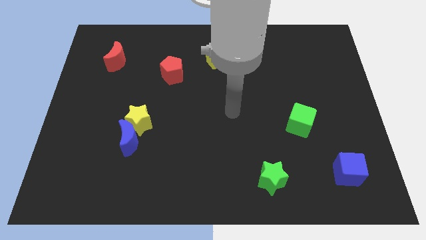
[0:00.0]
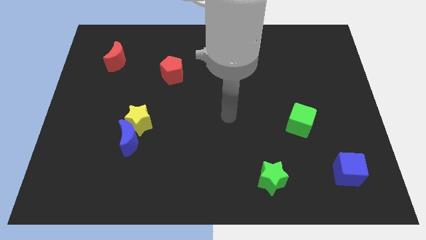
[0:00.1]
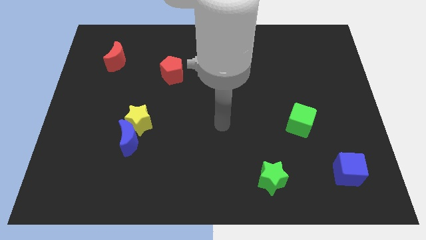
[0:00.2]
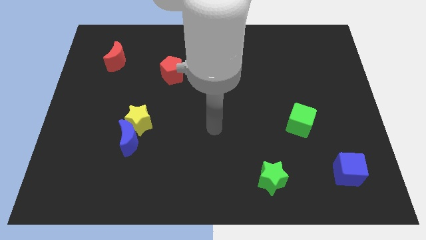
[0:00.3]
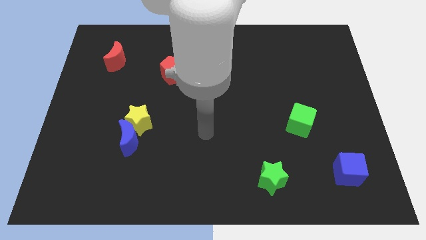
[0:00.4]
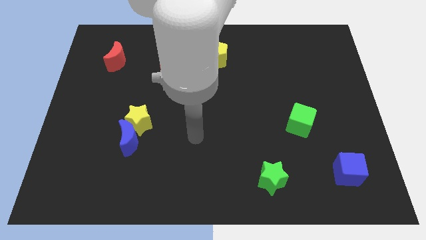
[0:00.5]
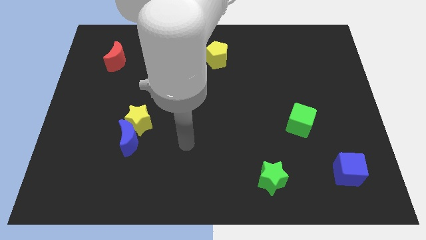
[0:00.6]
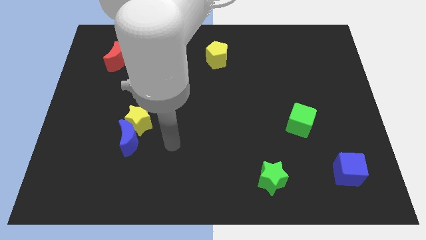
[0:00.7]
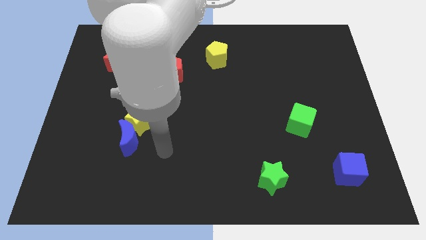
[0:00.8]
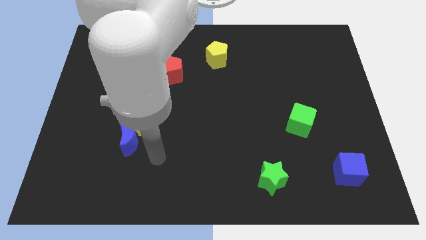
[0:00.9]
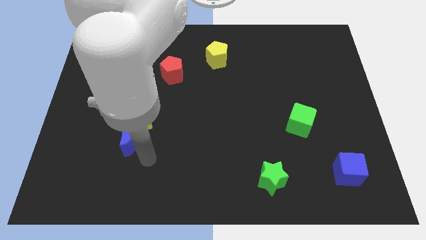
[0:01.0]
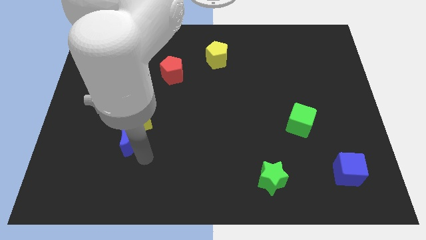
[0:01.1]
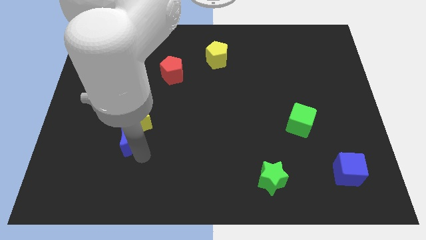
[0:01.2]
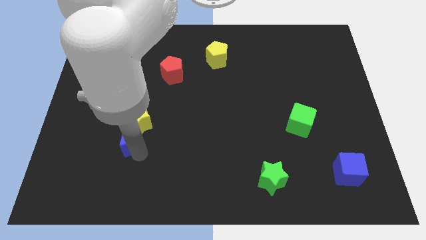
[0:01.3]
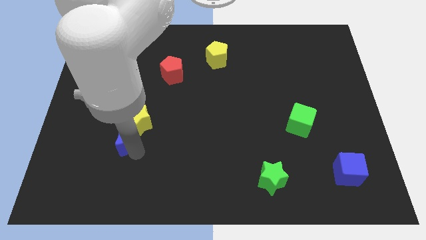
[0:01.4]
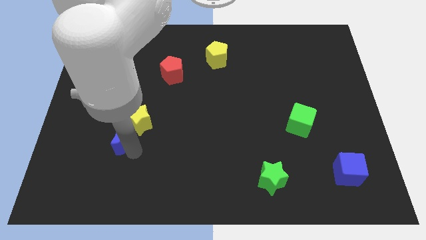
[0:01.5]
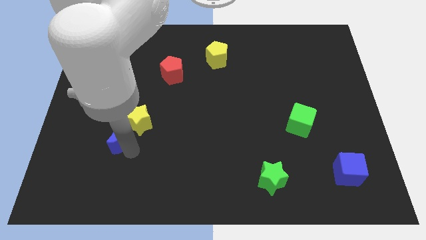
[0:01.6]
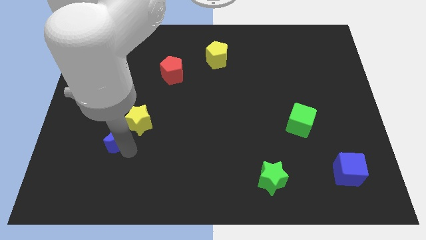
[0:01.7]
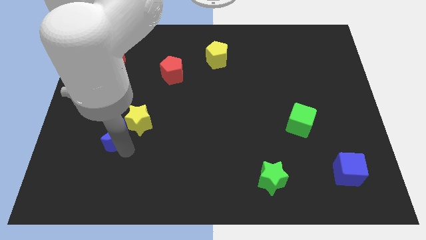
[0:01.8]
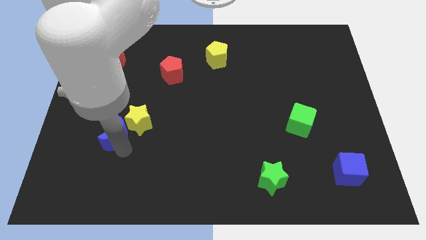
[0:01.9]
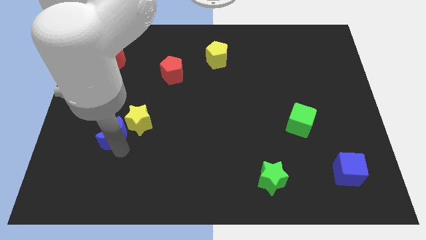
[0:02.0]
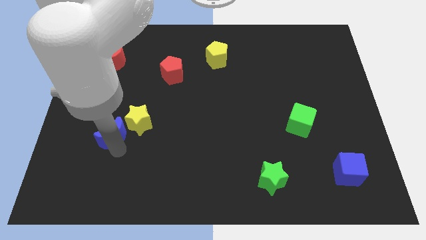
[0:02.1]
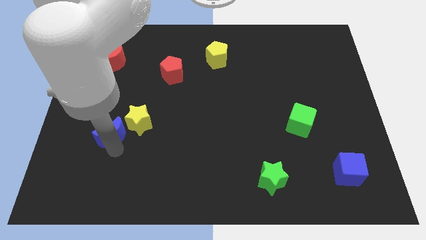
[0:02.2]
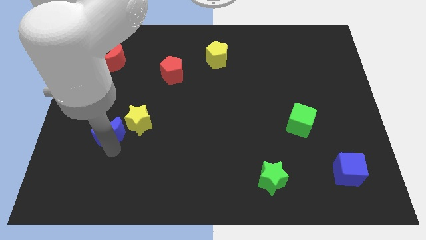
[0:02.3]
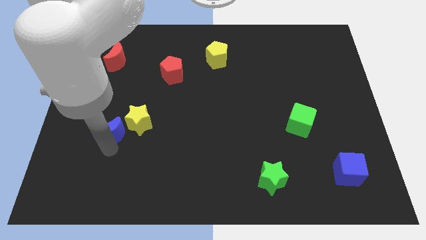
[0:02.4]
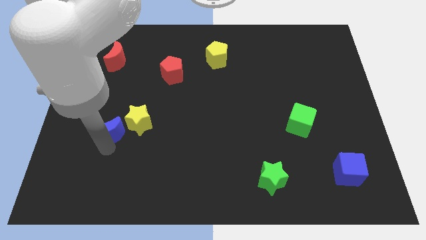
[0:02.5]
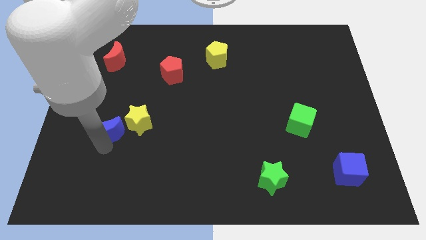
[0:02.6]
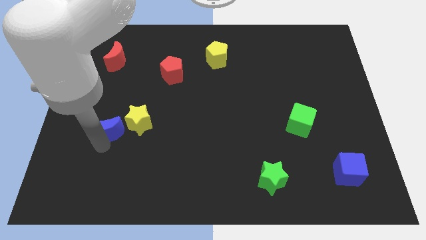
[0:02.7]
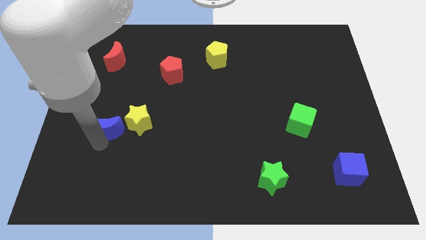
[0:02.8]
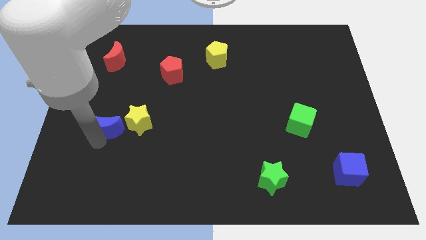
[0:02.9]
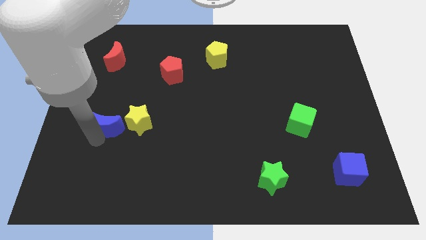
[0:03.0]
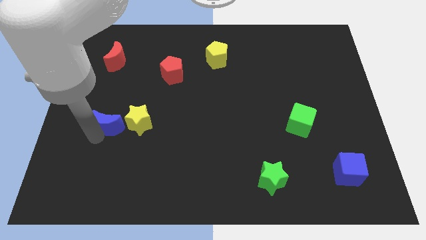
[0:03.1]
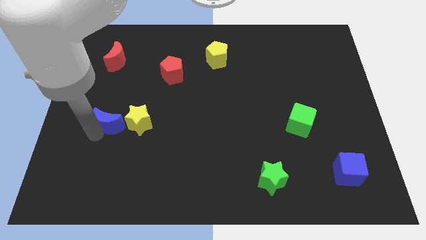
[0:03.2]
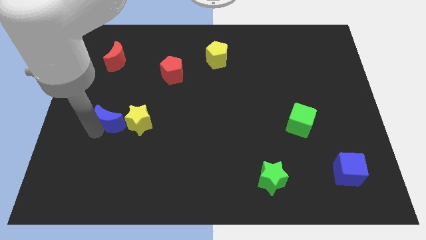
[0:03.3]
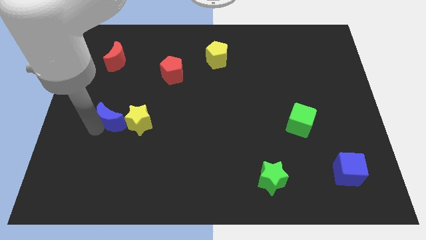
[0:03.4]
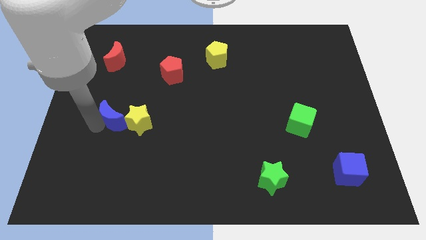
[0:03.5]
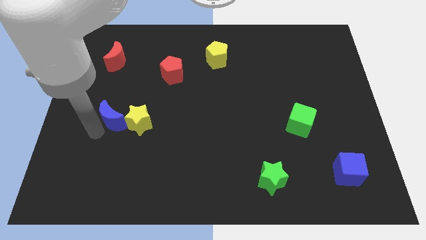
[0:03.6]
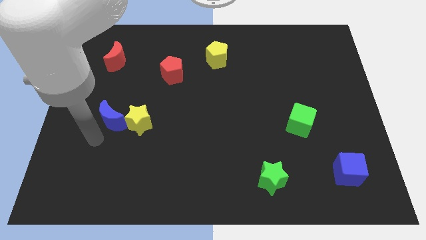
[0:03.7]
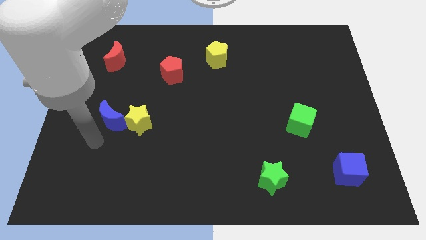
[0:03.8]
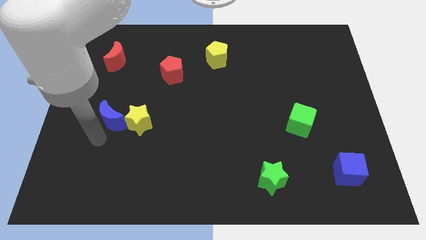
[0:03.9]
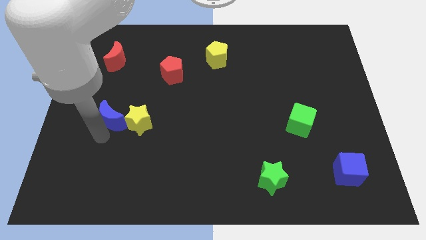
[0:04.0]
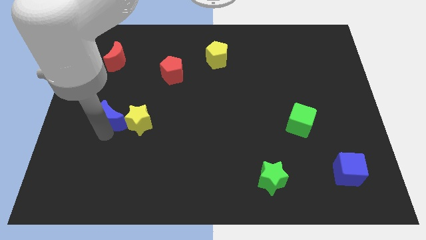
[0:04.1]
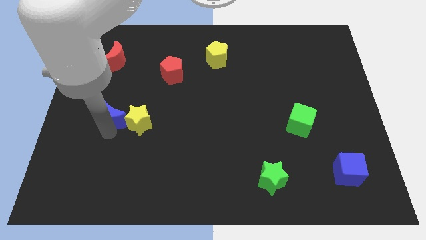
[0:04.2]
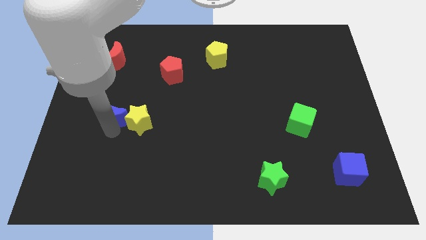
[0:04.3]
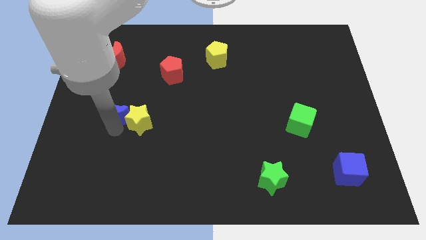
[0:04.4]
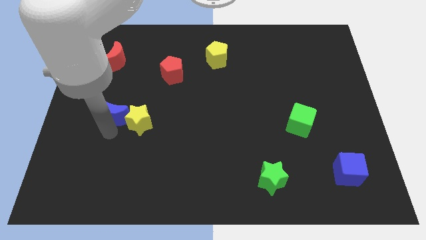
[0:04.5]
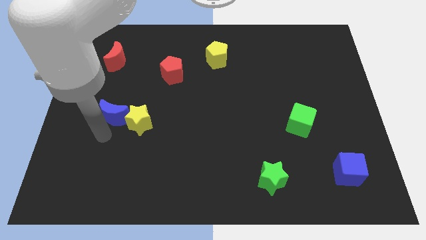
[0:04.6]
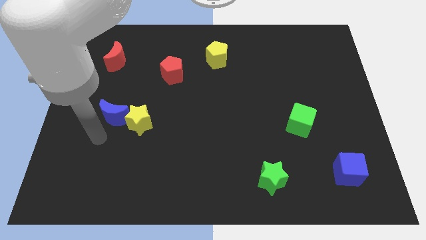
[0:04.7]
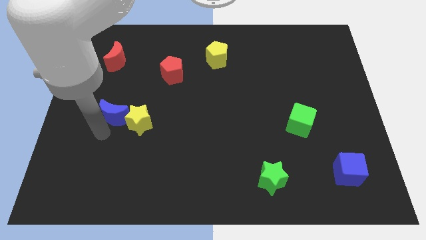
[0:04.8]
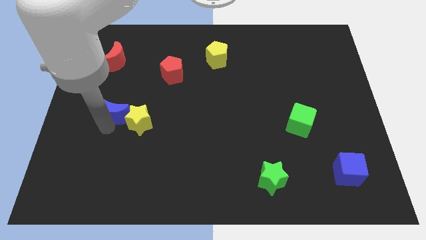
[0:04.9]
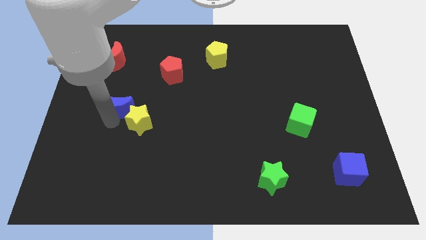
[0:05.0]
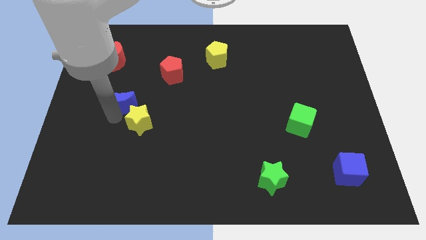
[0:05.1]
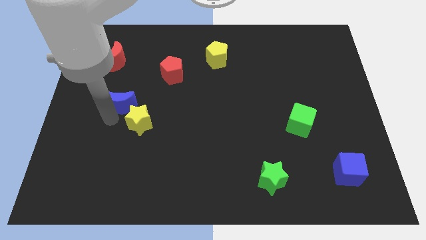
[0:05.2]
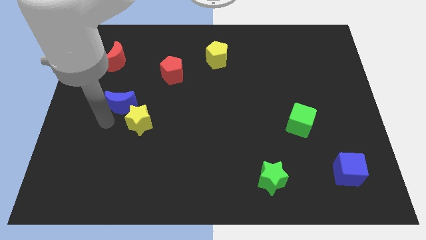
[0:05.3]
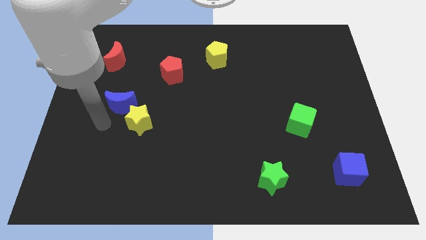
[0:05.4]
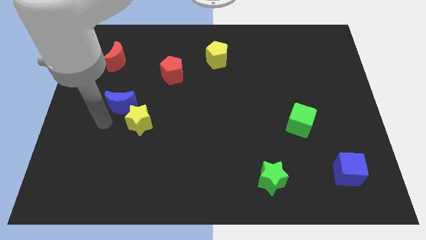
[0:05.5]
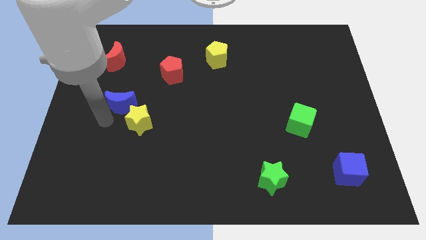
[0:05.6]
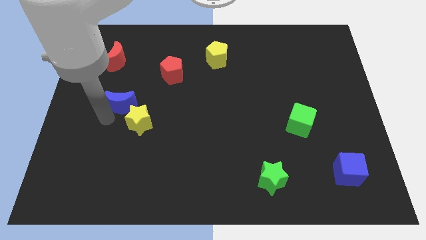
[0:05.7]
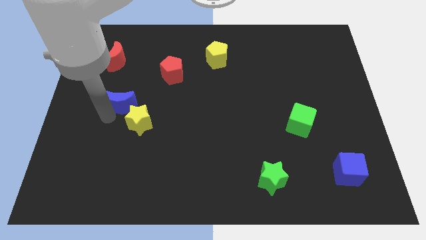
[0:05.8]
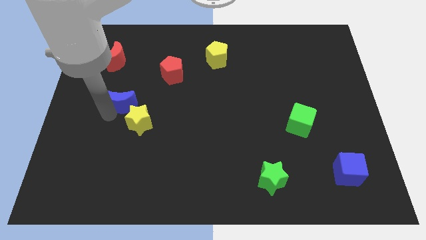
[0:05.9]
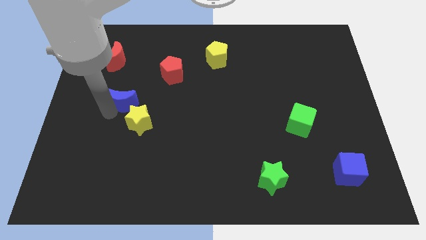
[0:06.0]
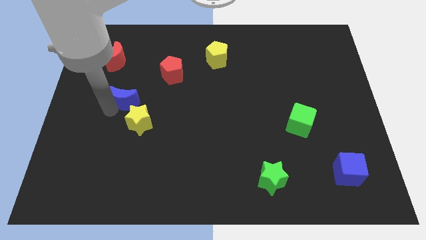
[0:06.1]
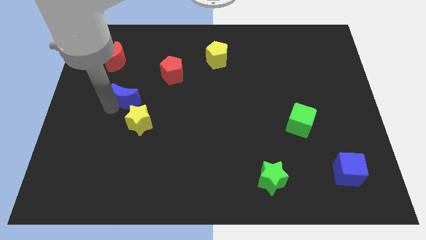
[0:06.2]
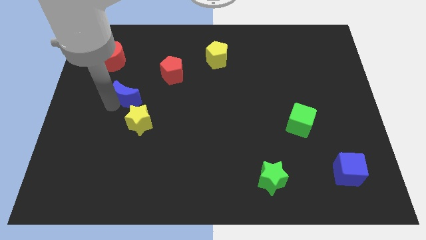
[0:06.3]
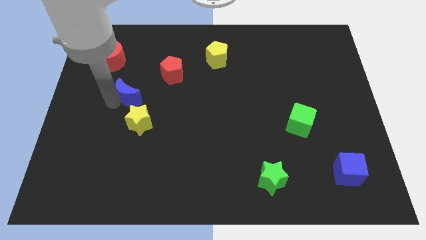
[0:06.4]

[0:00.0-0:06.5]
move the blue moon diagonally down and to the left of the red pentagon

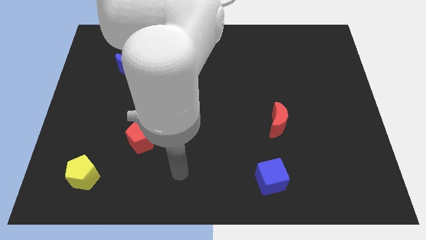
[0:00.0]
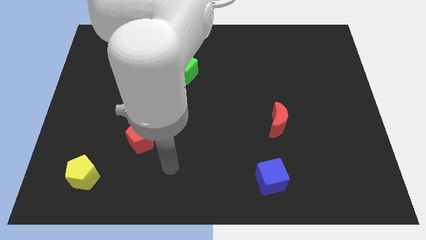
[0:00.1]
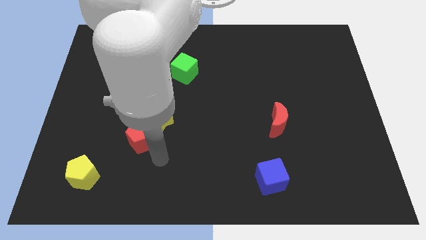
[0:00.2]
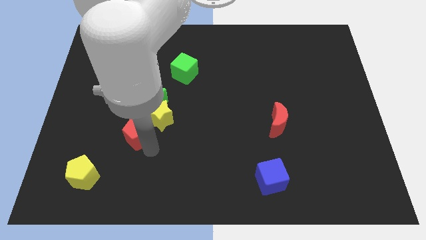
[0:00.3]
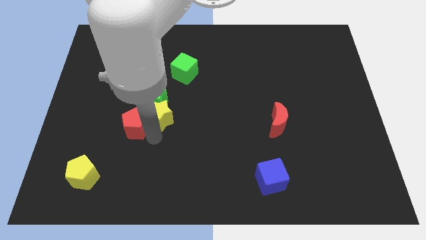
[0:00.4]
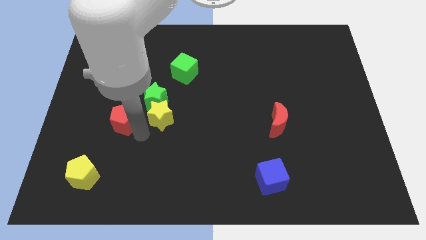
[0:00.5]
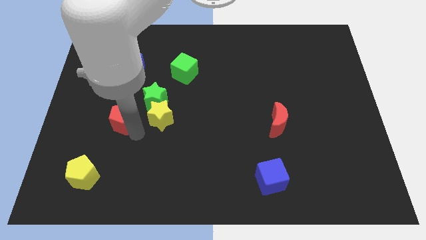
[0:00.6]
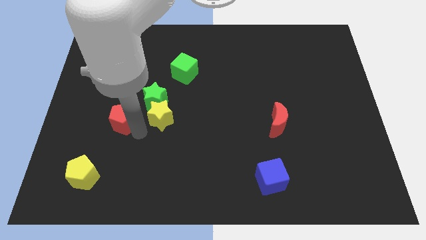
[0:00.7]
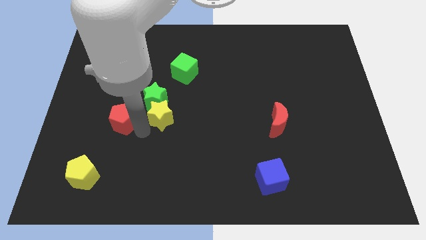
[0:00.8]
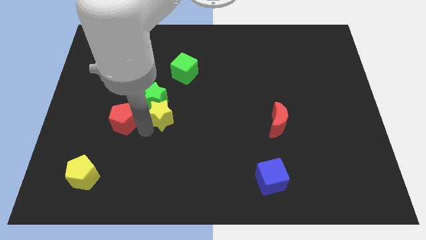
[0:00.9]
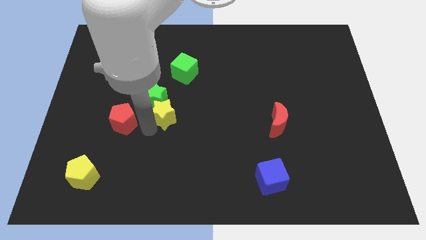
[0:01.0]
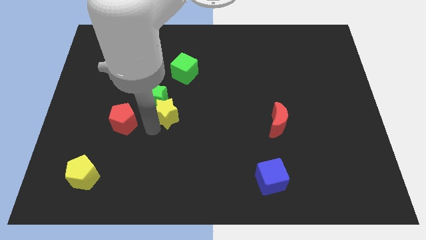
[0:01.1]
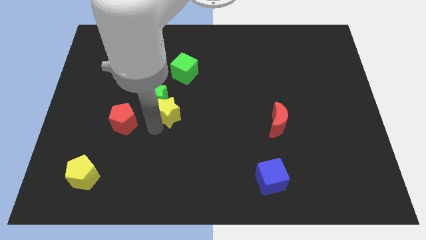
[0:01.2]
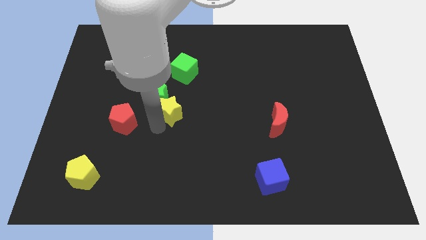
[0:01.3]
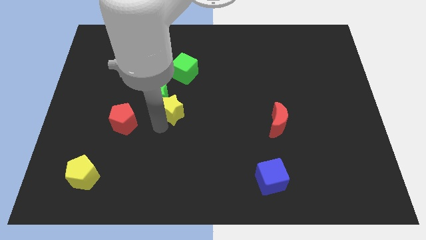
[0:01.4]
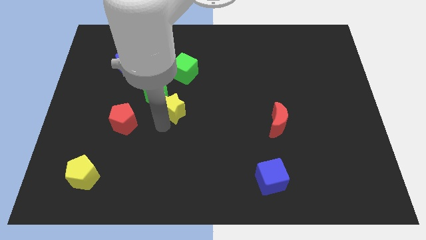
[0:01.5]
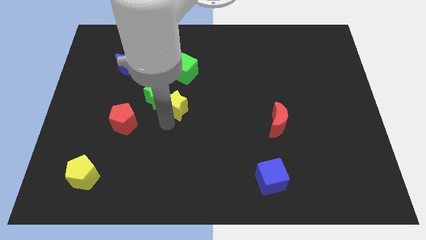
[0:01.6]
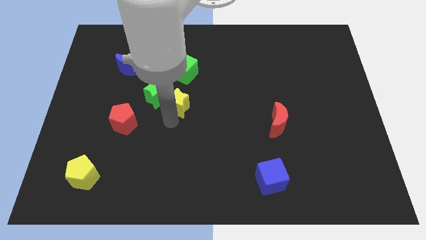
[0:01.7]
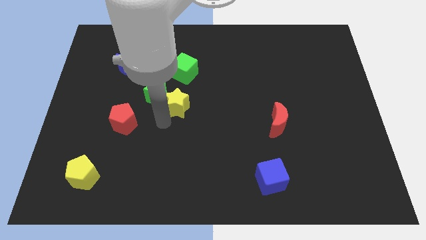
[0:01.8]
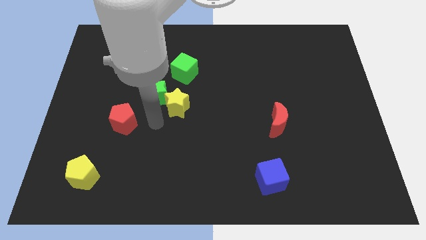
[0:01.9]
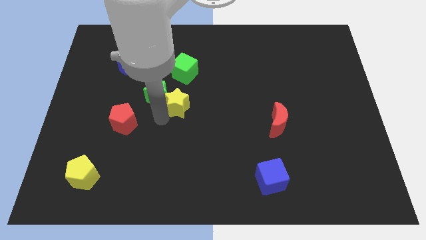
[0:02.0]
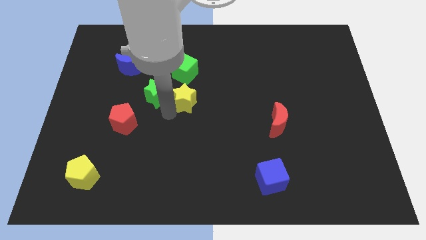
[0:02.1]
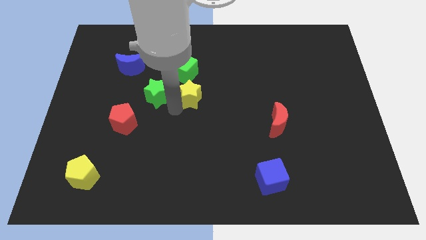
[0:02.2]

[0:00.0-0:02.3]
slide the yellow star diagonally down and to the right of the green cube
